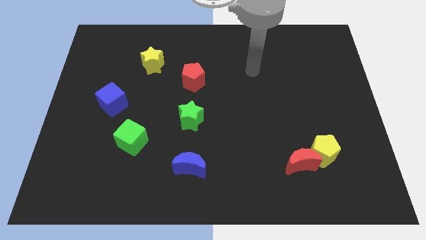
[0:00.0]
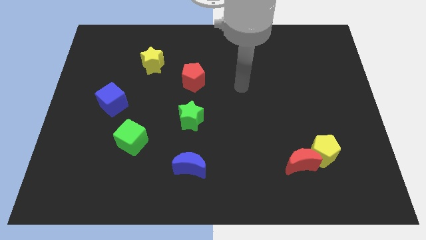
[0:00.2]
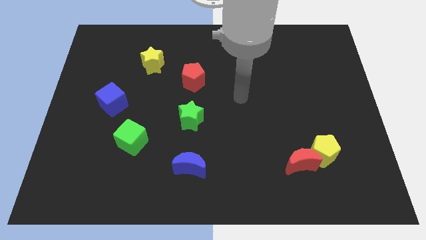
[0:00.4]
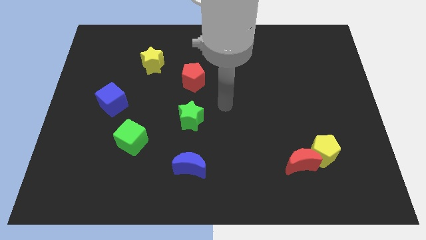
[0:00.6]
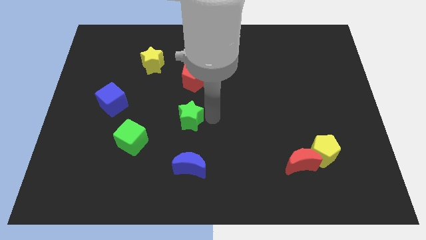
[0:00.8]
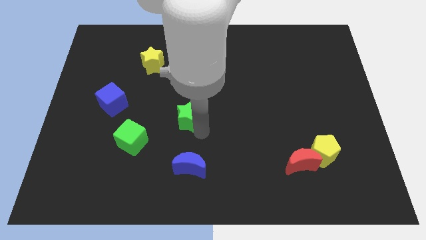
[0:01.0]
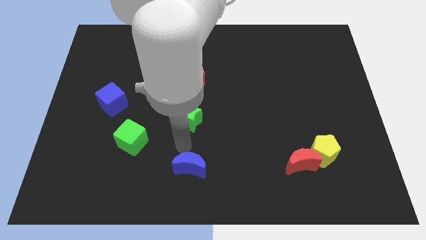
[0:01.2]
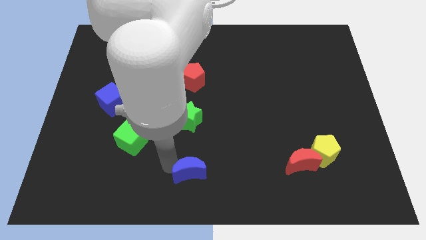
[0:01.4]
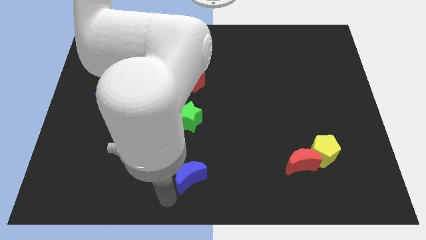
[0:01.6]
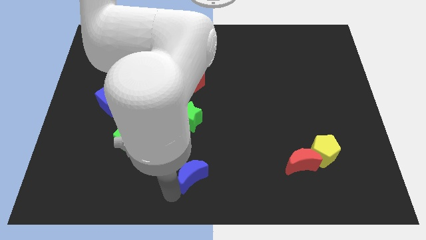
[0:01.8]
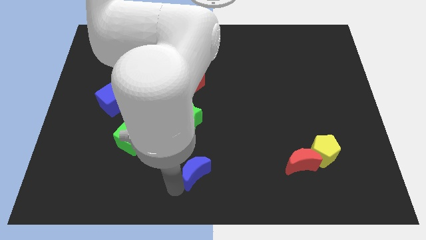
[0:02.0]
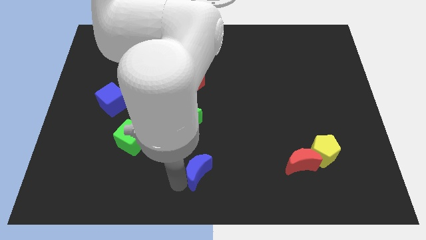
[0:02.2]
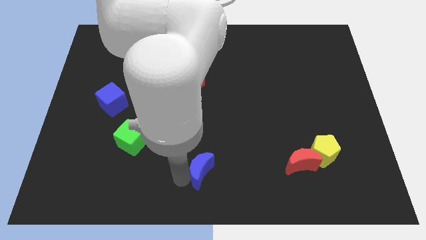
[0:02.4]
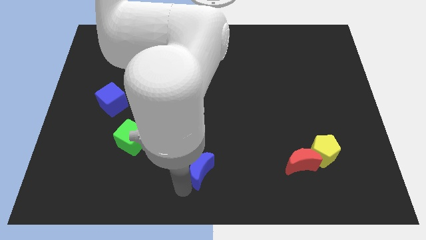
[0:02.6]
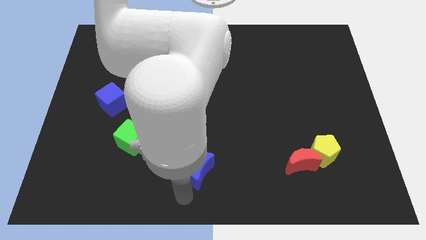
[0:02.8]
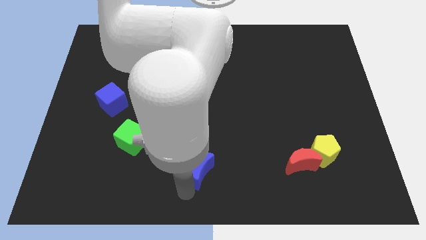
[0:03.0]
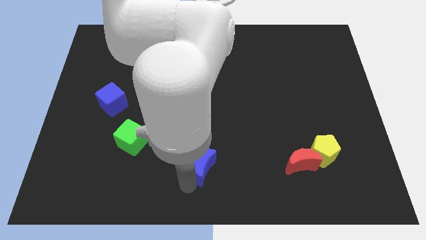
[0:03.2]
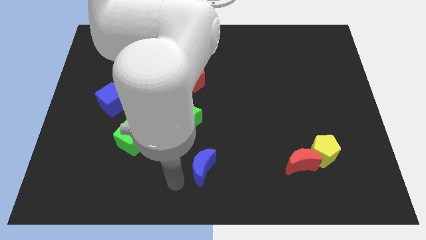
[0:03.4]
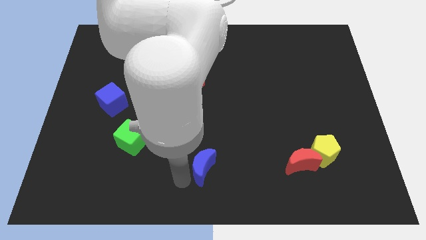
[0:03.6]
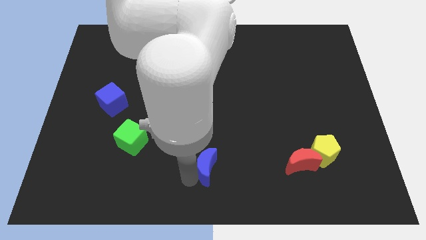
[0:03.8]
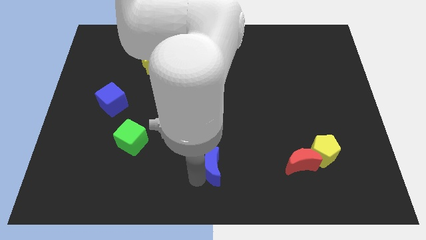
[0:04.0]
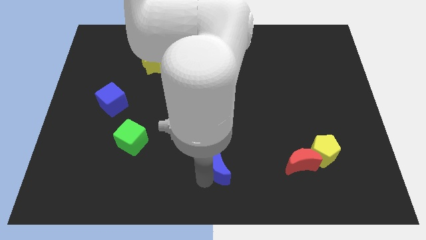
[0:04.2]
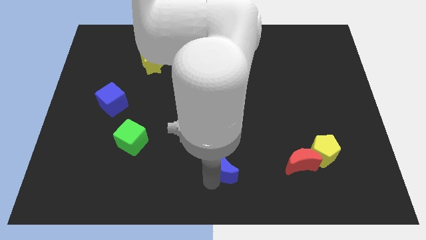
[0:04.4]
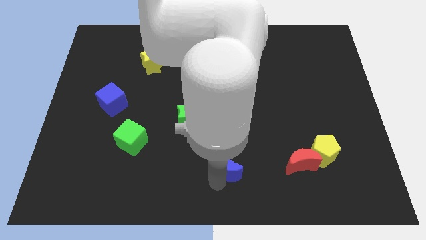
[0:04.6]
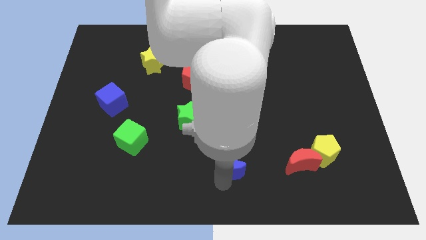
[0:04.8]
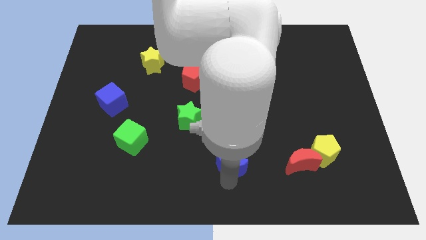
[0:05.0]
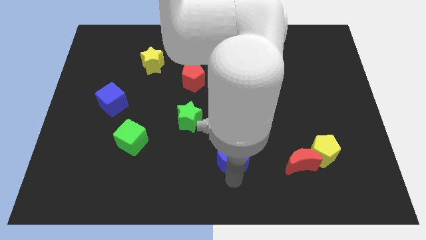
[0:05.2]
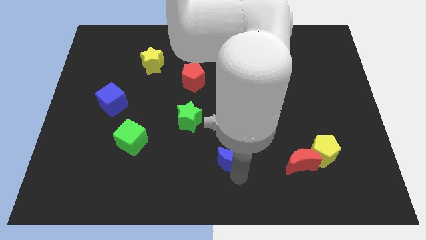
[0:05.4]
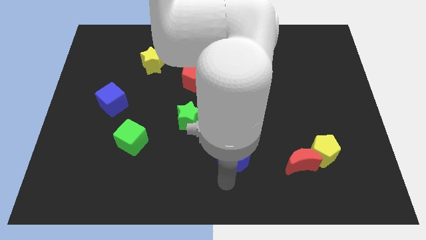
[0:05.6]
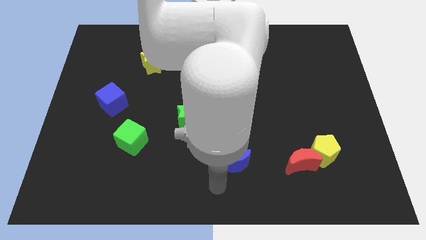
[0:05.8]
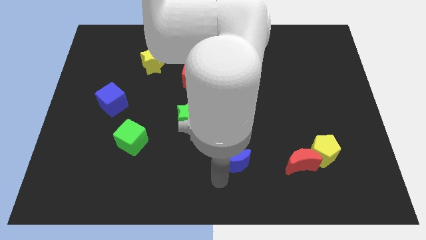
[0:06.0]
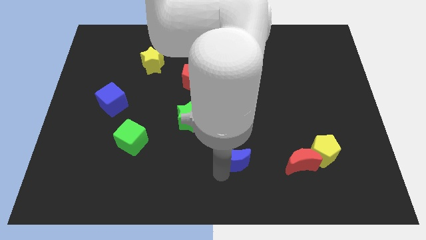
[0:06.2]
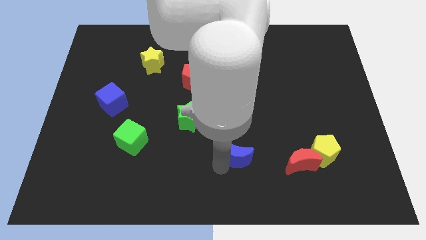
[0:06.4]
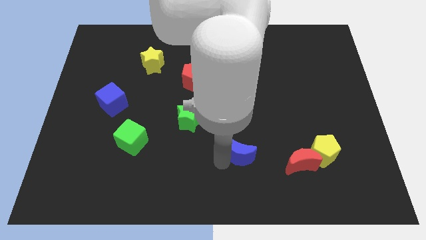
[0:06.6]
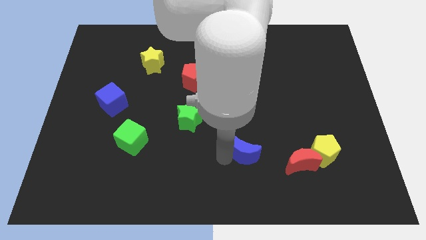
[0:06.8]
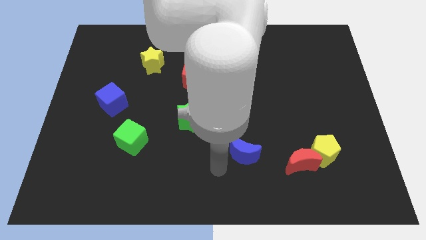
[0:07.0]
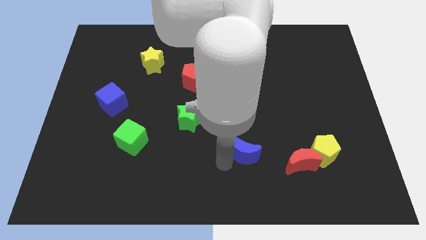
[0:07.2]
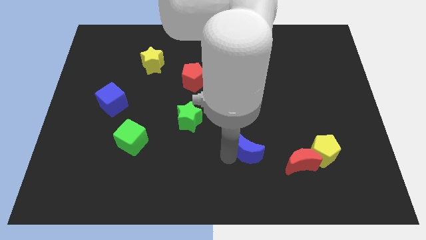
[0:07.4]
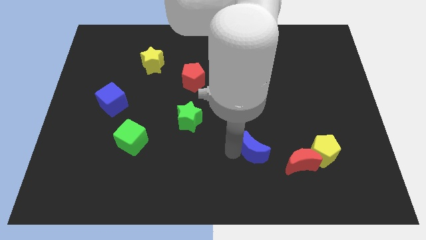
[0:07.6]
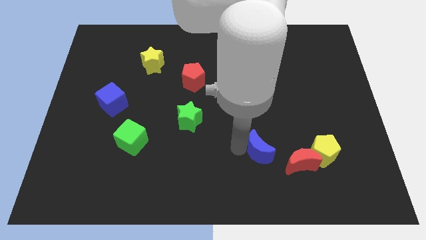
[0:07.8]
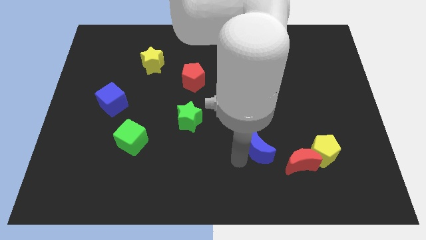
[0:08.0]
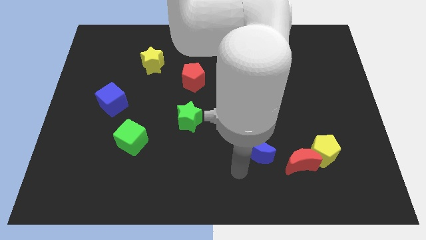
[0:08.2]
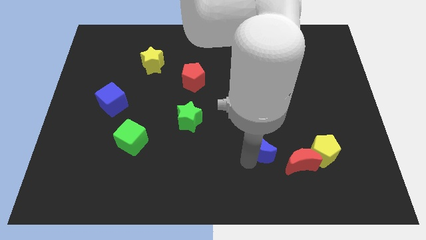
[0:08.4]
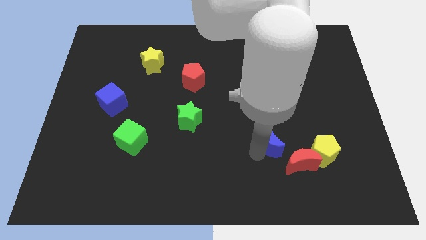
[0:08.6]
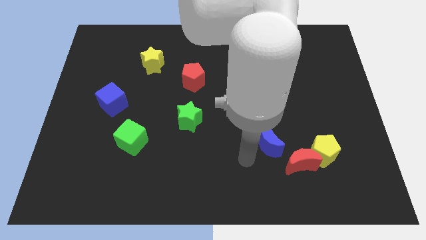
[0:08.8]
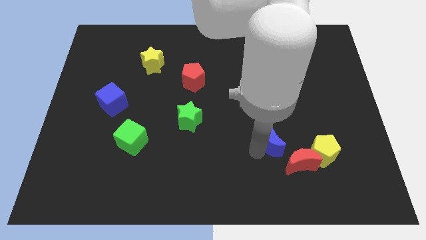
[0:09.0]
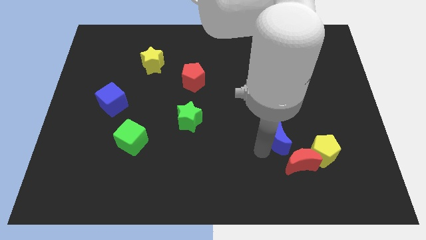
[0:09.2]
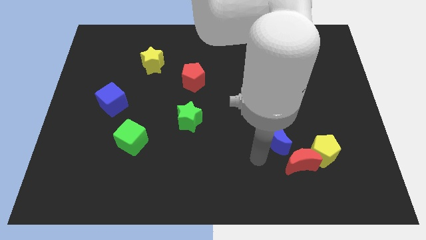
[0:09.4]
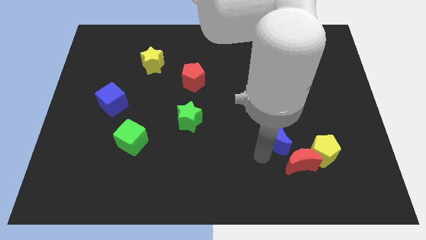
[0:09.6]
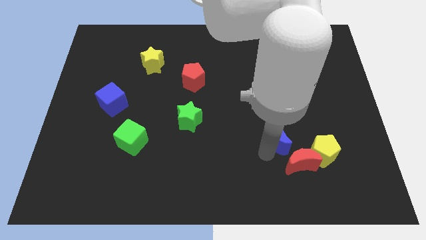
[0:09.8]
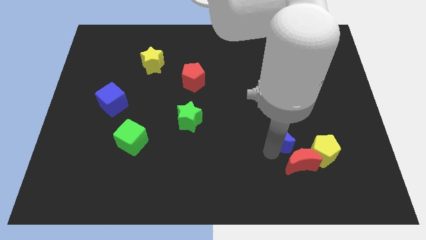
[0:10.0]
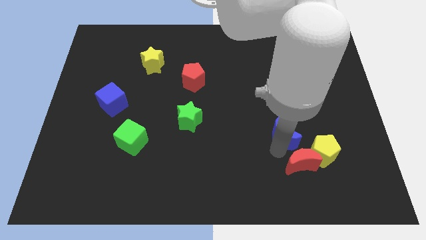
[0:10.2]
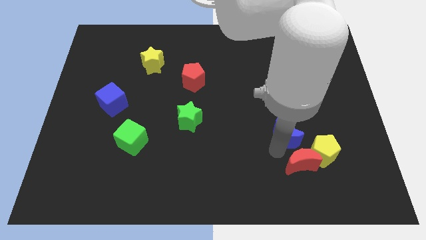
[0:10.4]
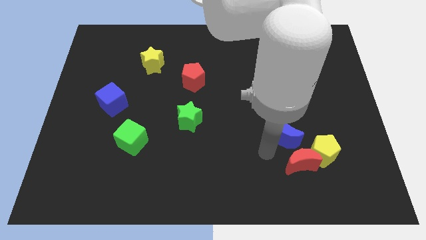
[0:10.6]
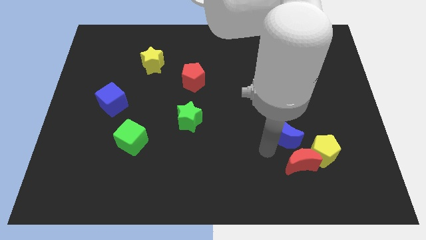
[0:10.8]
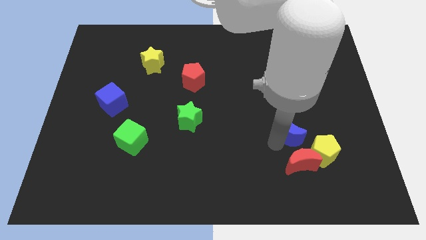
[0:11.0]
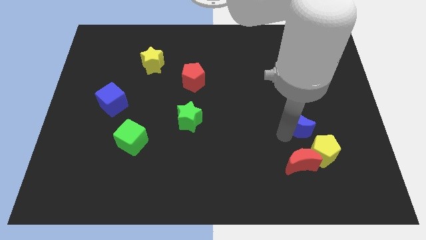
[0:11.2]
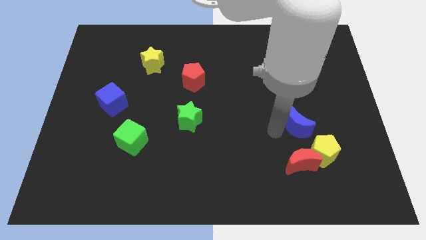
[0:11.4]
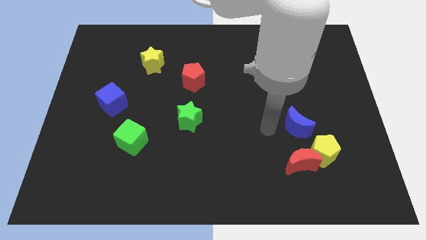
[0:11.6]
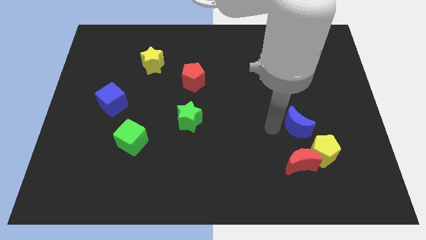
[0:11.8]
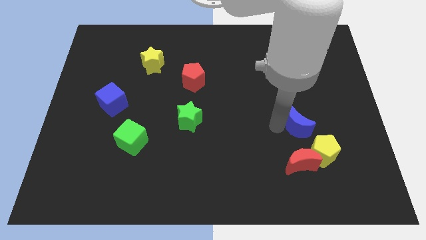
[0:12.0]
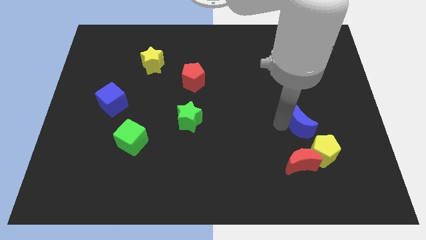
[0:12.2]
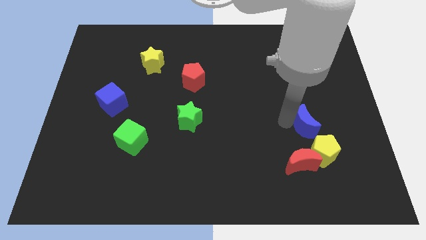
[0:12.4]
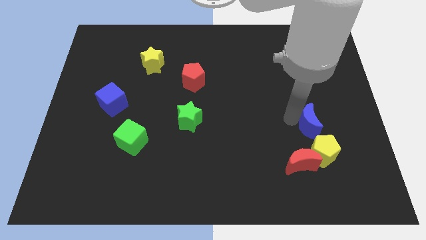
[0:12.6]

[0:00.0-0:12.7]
push the blue moon to the top right side of the red moon

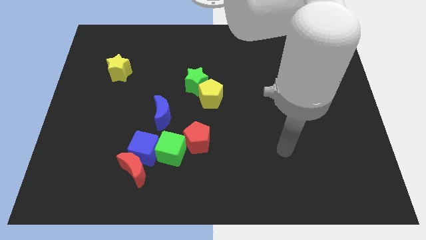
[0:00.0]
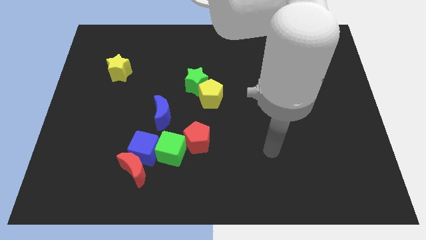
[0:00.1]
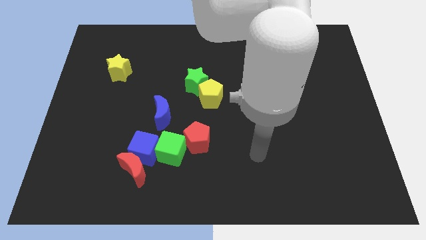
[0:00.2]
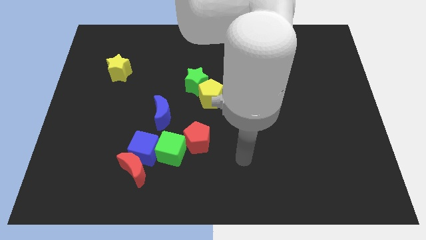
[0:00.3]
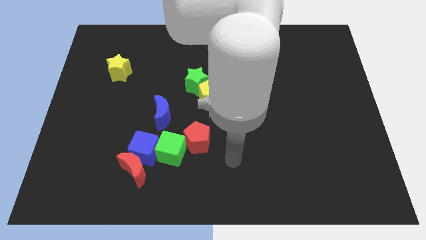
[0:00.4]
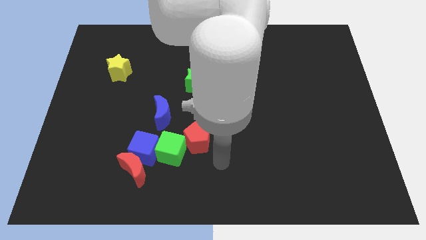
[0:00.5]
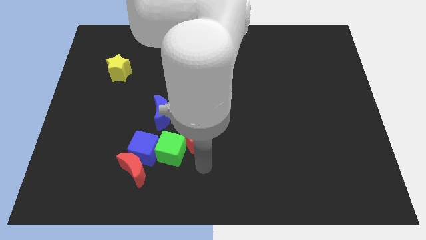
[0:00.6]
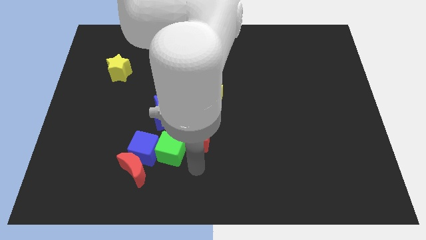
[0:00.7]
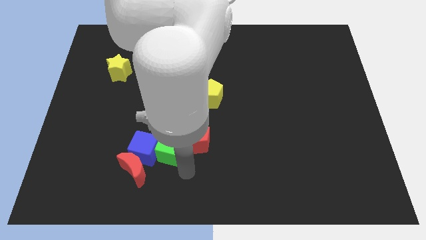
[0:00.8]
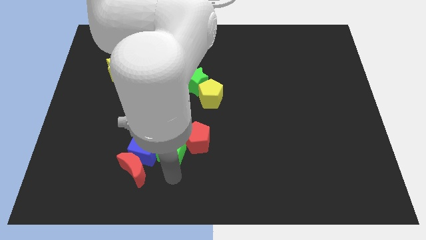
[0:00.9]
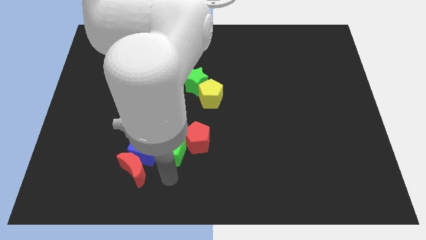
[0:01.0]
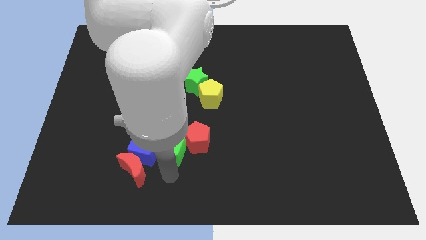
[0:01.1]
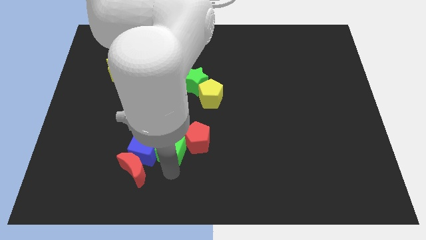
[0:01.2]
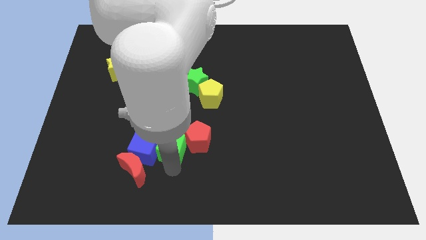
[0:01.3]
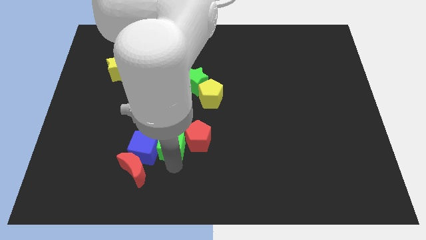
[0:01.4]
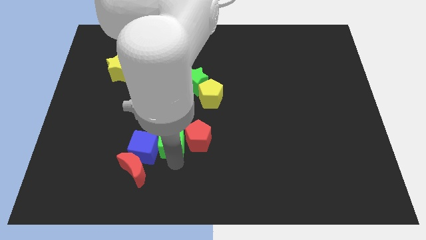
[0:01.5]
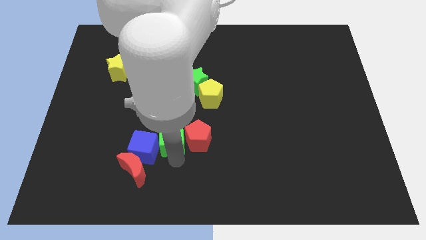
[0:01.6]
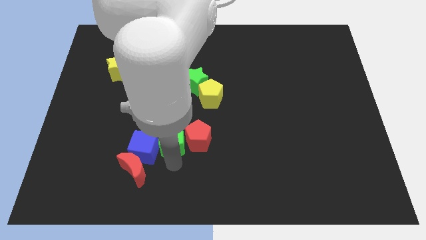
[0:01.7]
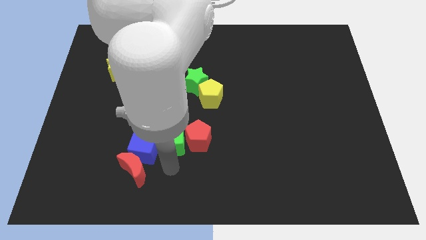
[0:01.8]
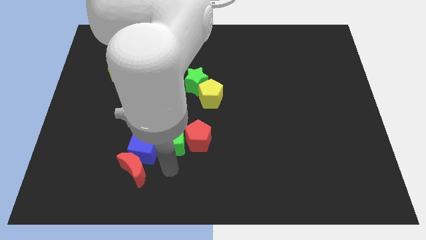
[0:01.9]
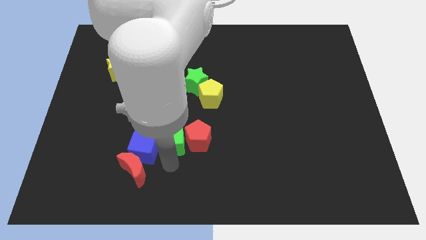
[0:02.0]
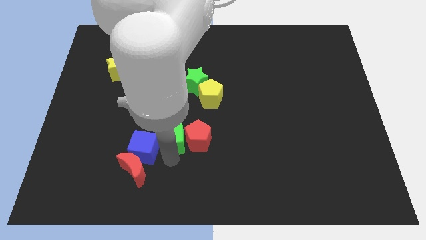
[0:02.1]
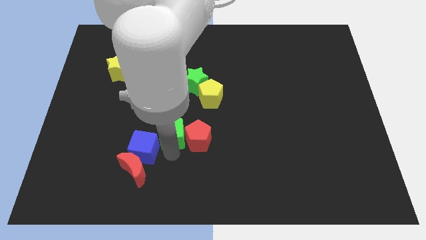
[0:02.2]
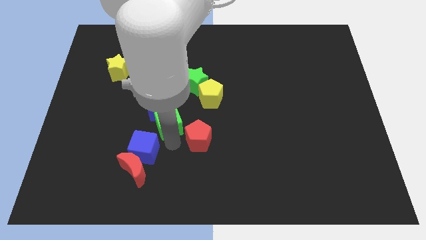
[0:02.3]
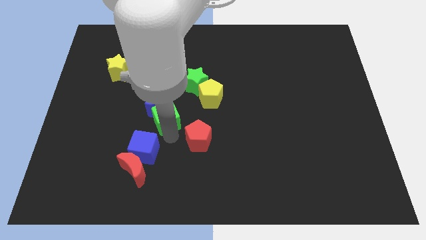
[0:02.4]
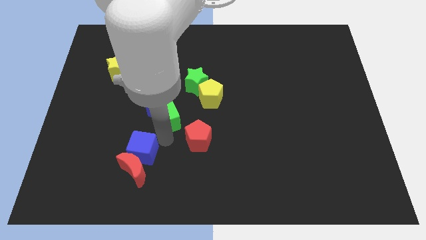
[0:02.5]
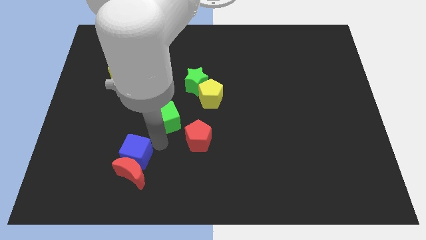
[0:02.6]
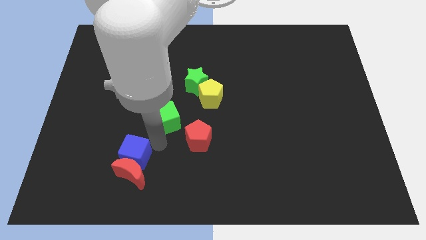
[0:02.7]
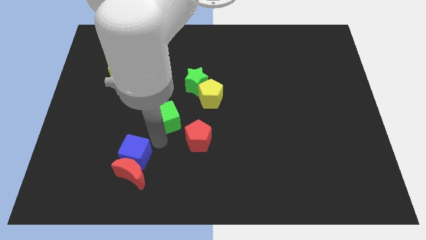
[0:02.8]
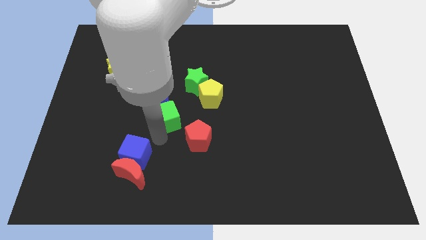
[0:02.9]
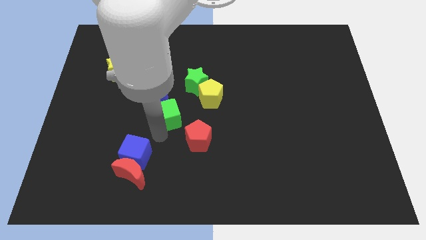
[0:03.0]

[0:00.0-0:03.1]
push the green cube to the bottom left of the green star
